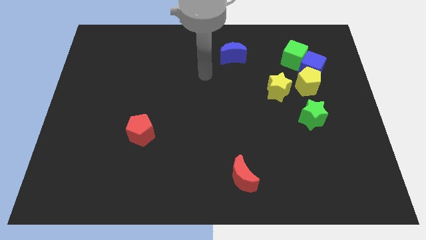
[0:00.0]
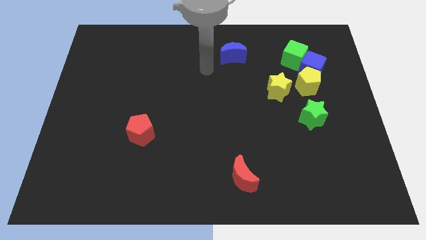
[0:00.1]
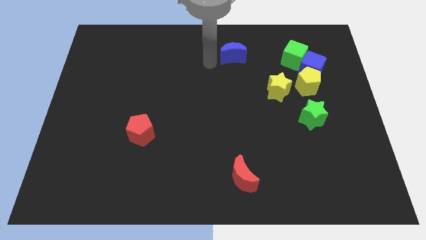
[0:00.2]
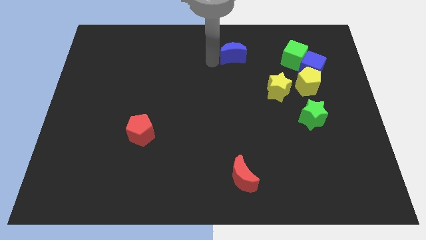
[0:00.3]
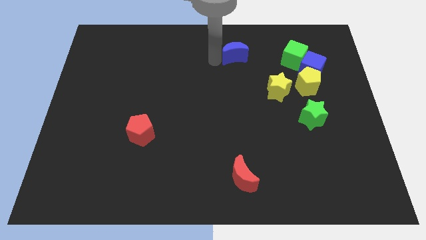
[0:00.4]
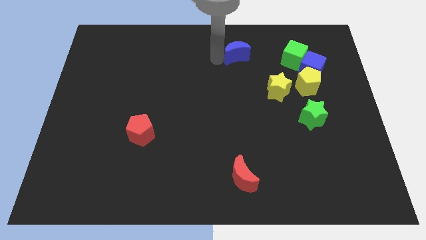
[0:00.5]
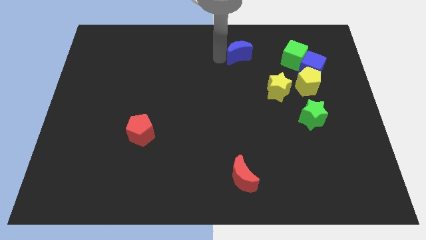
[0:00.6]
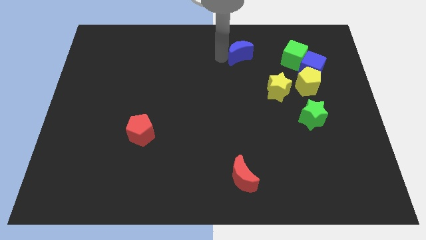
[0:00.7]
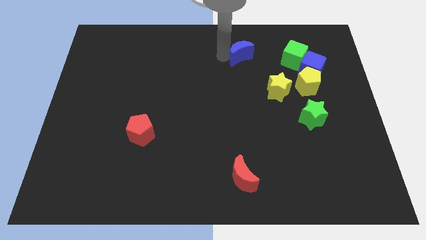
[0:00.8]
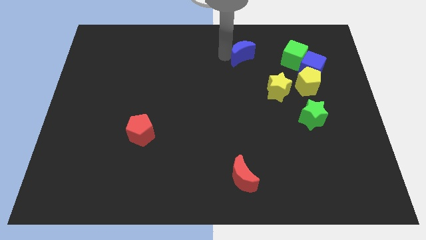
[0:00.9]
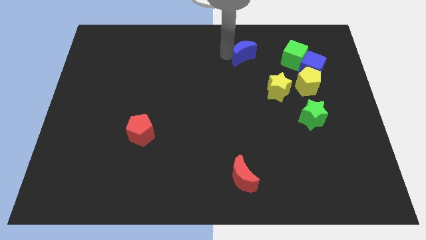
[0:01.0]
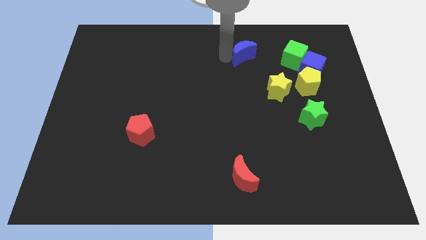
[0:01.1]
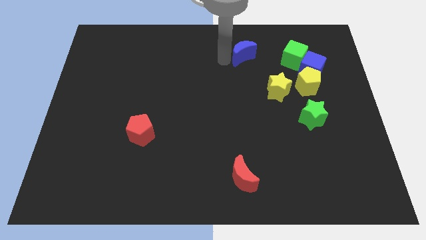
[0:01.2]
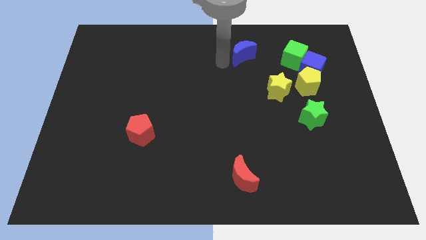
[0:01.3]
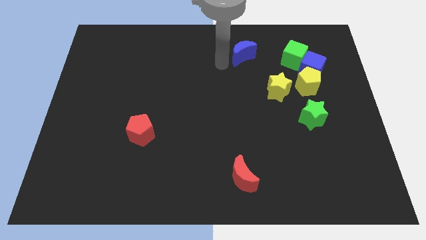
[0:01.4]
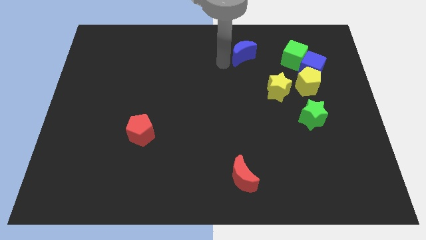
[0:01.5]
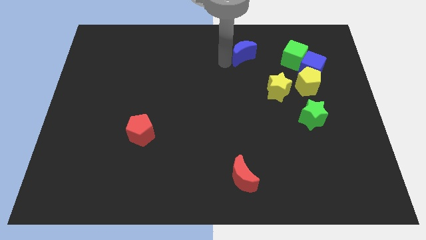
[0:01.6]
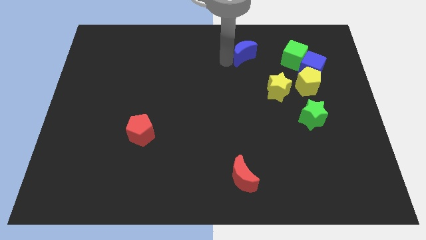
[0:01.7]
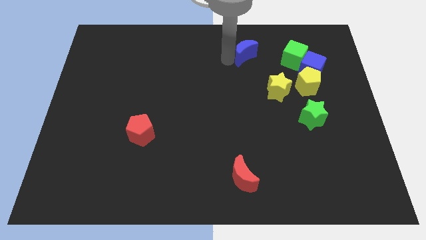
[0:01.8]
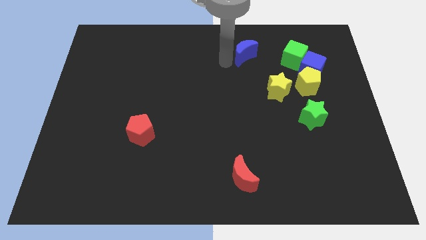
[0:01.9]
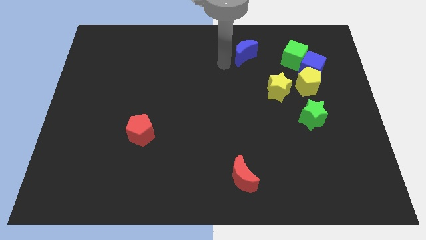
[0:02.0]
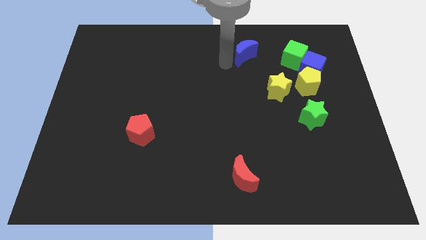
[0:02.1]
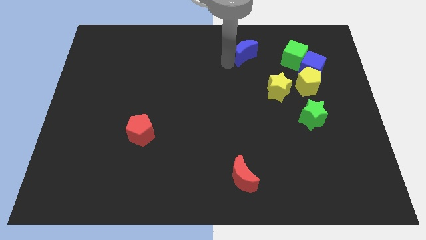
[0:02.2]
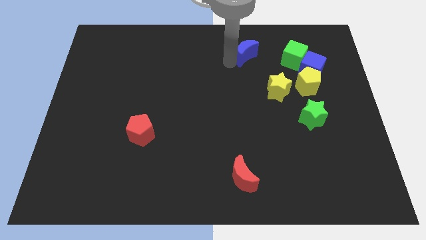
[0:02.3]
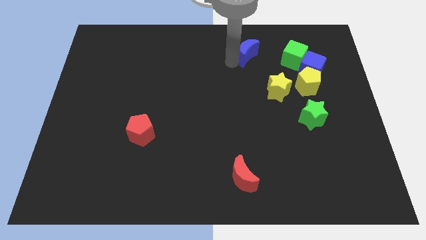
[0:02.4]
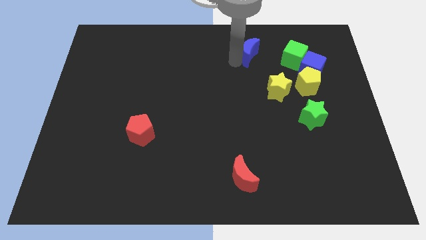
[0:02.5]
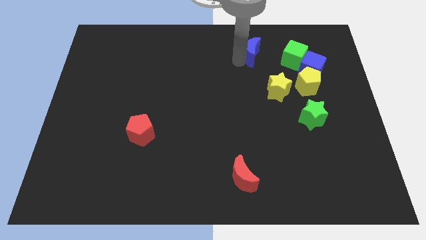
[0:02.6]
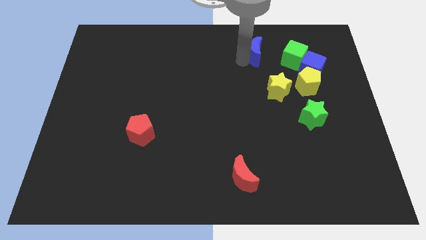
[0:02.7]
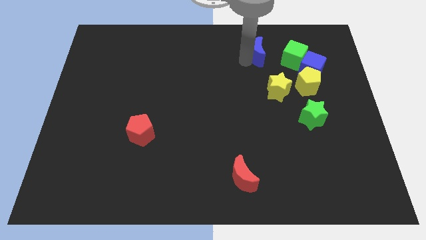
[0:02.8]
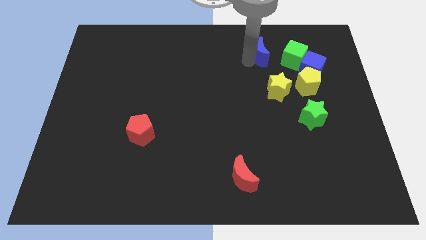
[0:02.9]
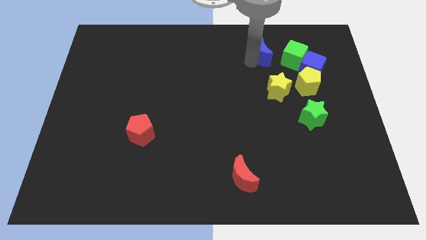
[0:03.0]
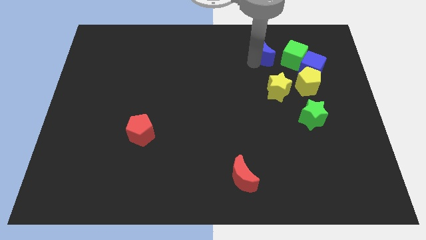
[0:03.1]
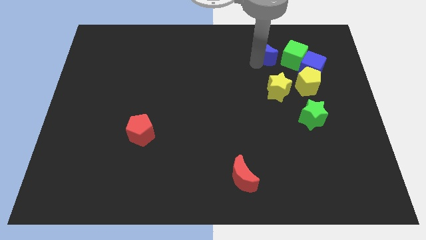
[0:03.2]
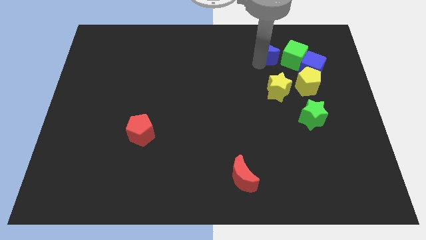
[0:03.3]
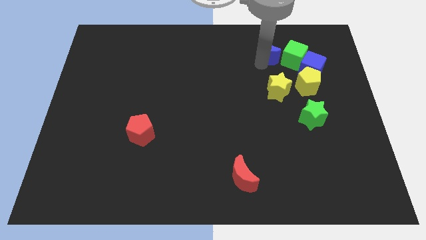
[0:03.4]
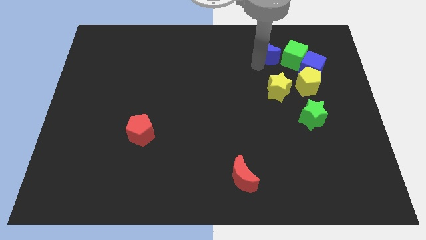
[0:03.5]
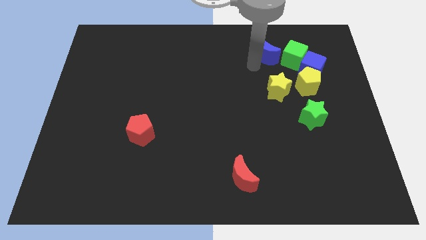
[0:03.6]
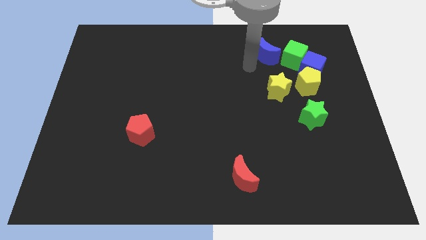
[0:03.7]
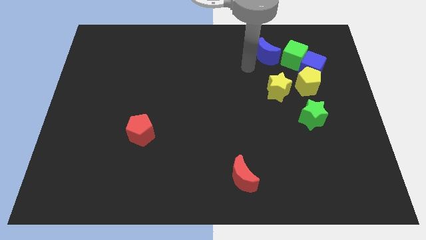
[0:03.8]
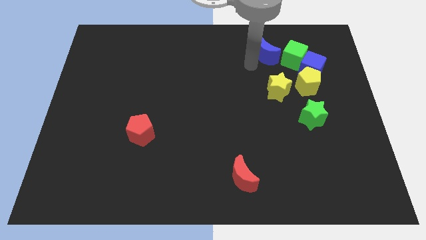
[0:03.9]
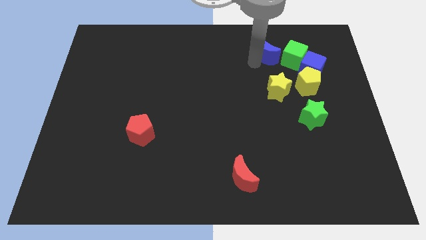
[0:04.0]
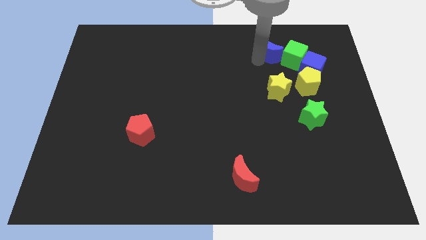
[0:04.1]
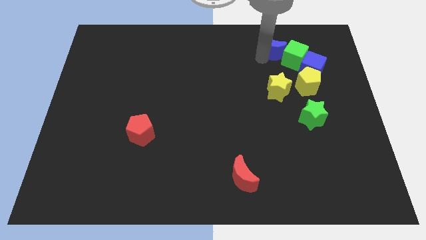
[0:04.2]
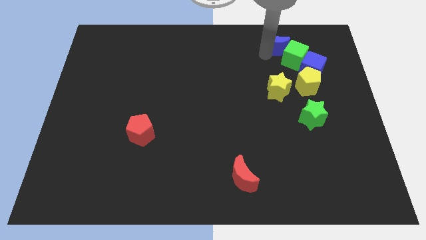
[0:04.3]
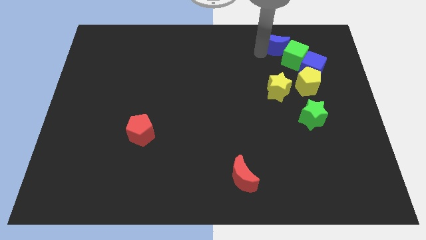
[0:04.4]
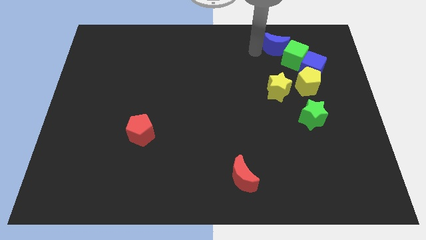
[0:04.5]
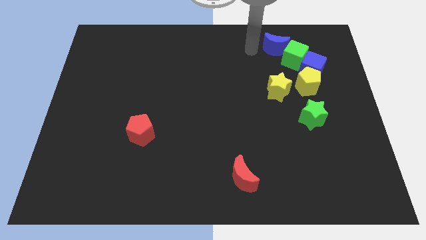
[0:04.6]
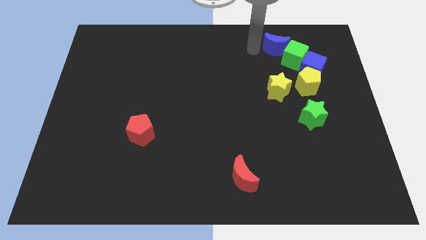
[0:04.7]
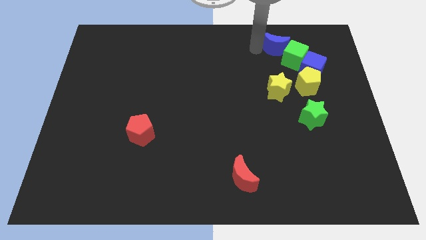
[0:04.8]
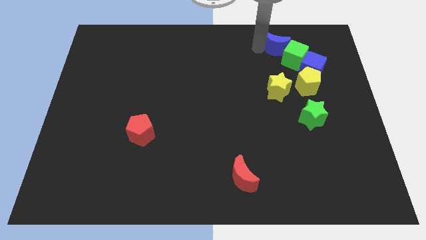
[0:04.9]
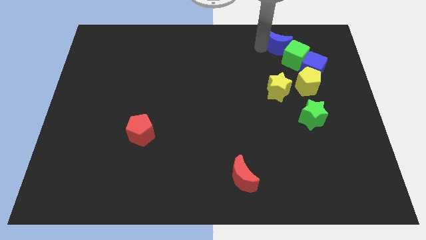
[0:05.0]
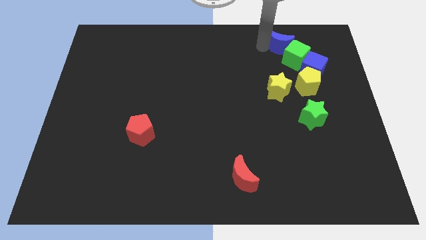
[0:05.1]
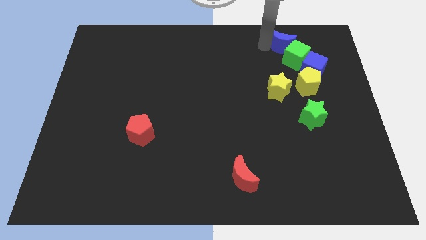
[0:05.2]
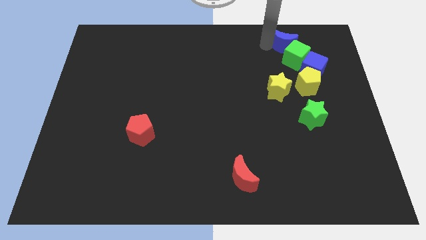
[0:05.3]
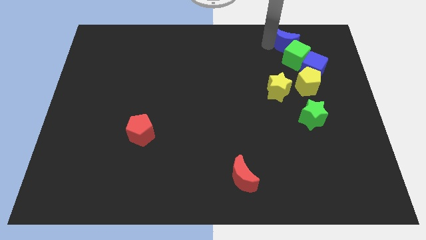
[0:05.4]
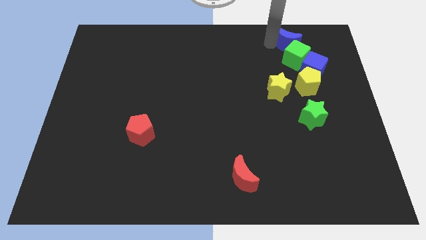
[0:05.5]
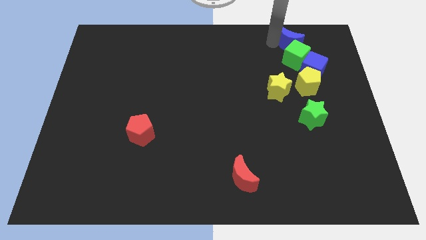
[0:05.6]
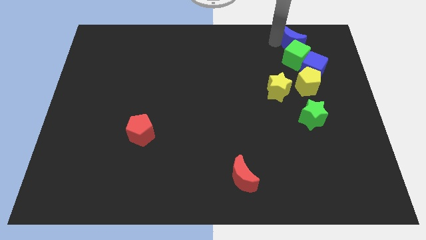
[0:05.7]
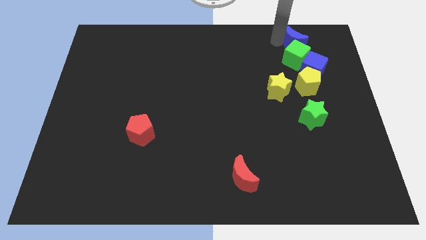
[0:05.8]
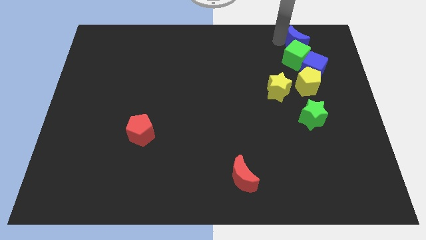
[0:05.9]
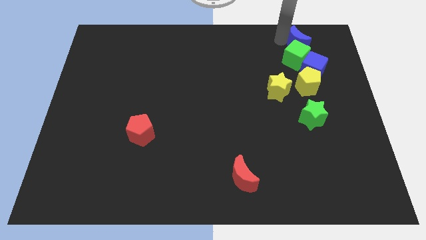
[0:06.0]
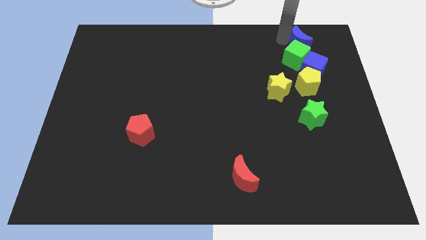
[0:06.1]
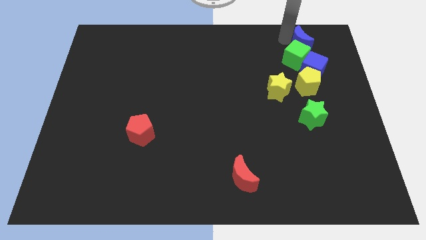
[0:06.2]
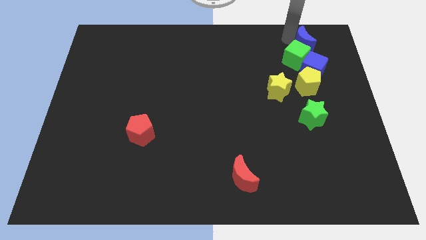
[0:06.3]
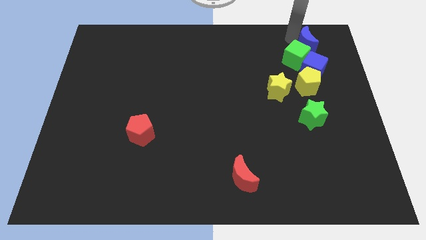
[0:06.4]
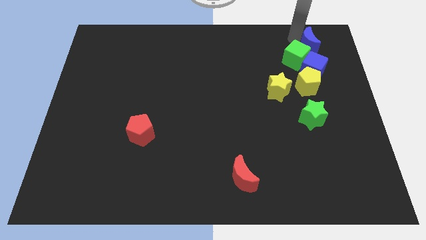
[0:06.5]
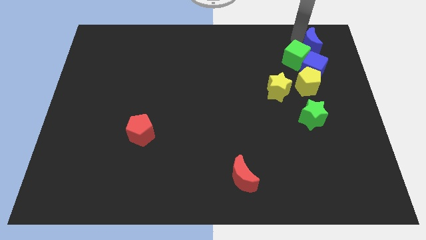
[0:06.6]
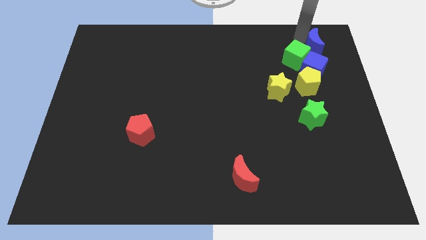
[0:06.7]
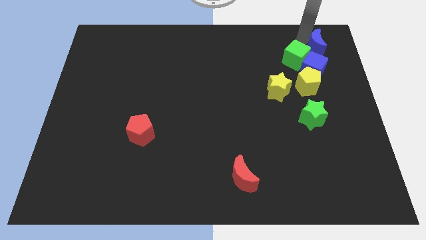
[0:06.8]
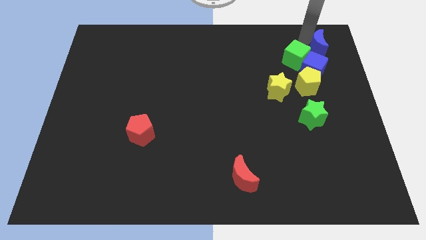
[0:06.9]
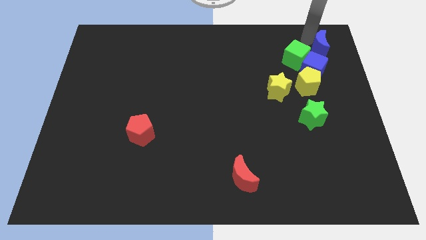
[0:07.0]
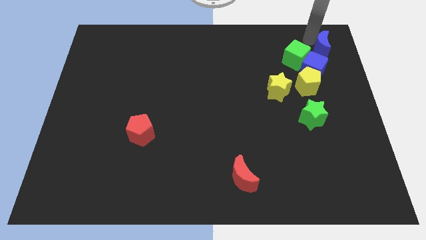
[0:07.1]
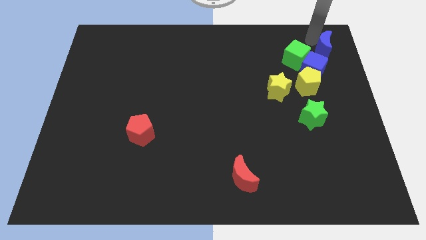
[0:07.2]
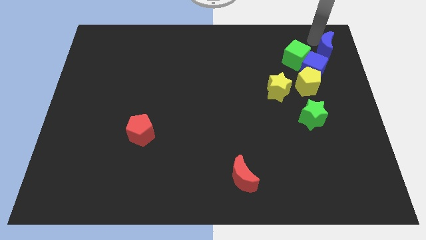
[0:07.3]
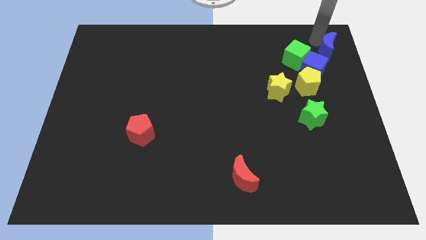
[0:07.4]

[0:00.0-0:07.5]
put the blue moon to the top right corner

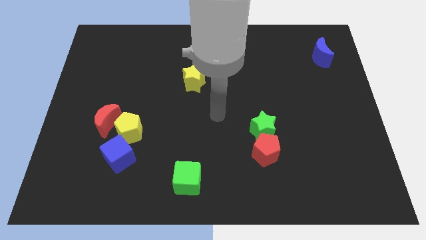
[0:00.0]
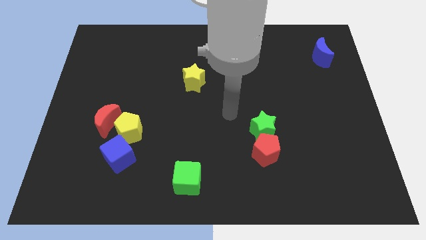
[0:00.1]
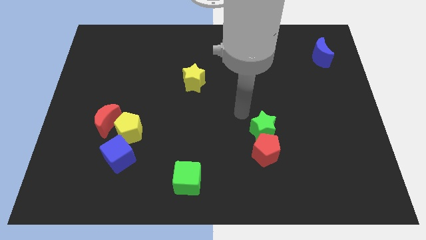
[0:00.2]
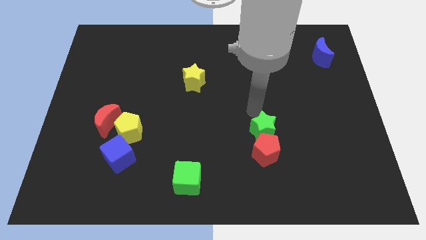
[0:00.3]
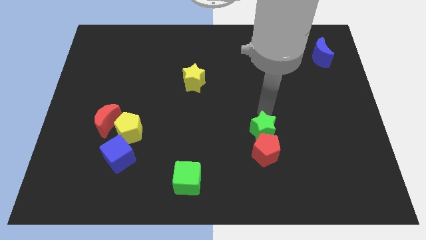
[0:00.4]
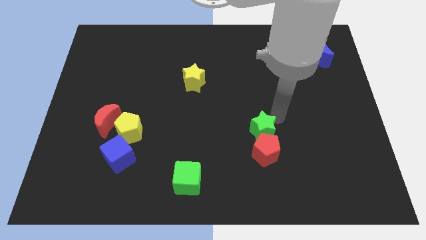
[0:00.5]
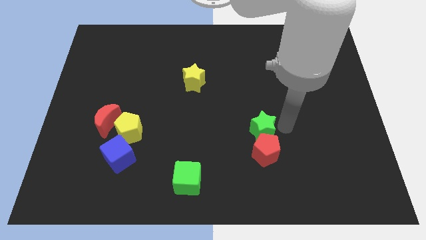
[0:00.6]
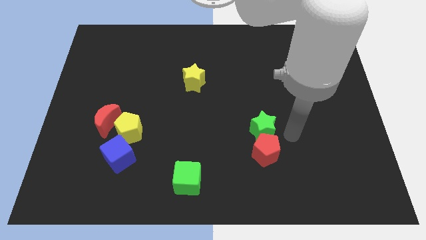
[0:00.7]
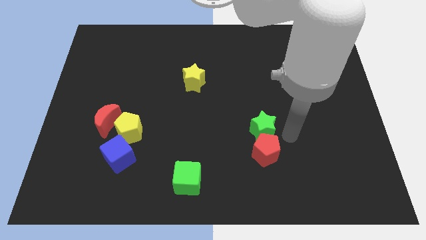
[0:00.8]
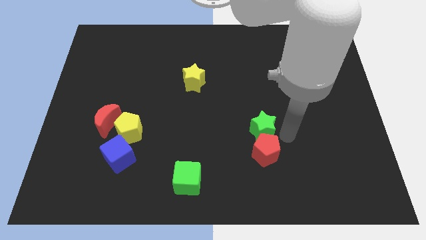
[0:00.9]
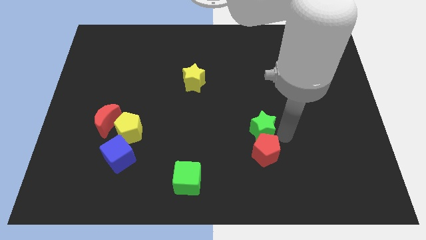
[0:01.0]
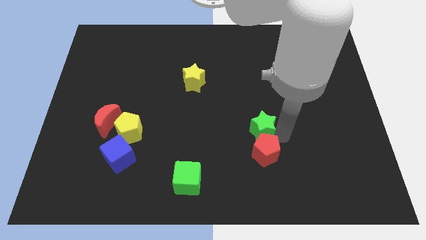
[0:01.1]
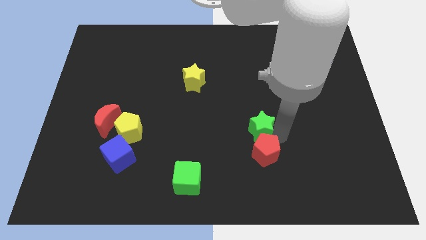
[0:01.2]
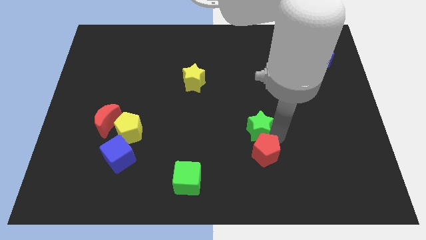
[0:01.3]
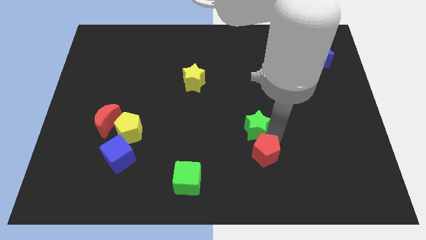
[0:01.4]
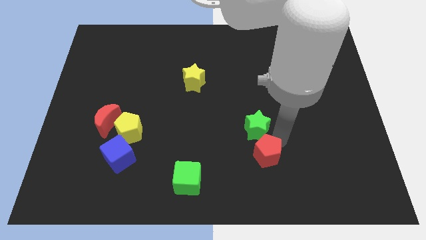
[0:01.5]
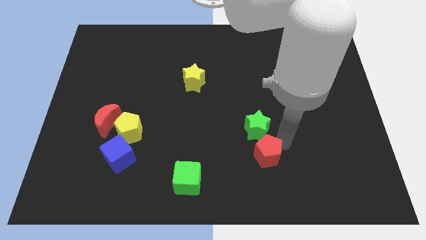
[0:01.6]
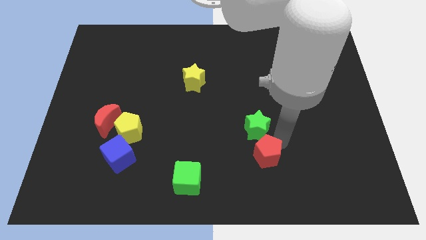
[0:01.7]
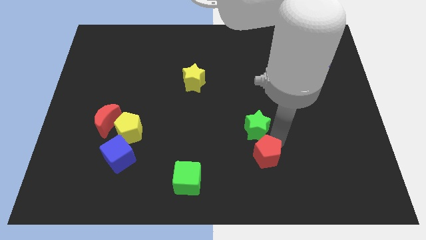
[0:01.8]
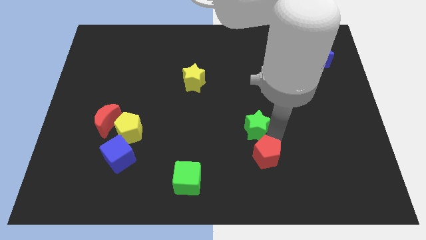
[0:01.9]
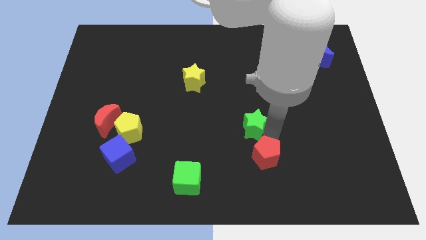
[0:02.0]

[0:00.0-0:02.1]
slide the green star to the middle of the board
